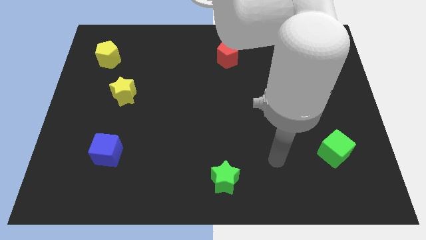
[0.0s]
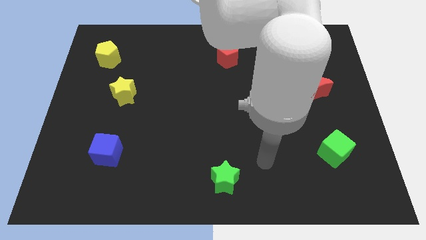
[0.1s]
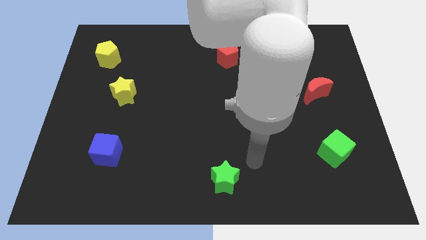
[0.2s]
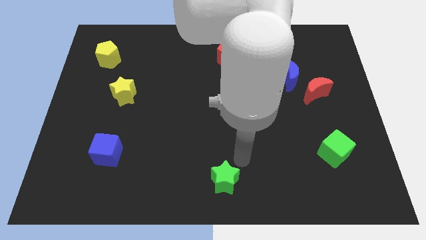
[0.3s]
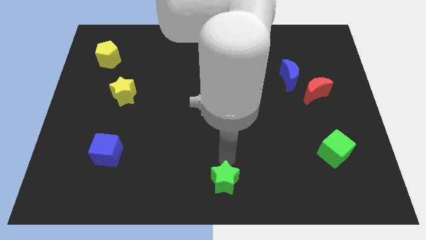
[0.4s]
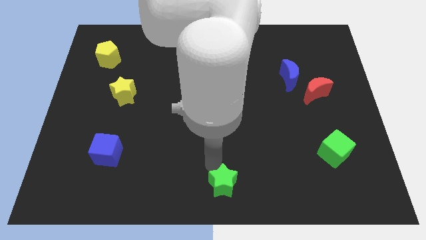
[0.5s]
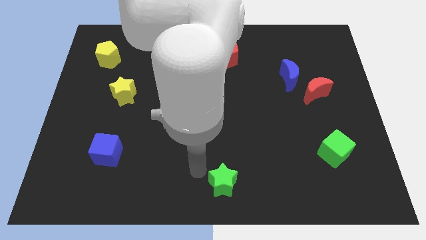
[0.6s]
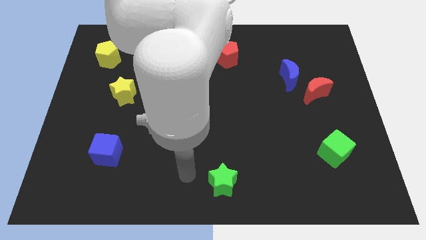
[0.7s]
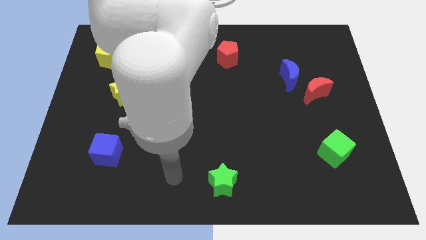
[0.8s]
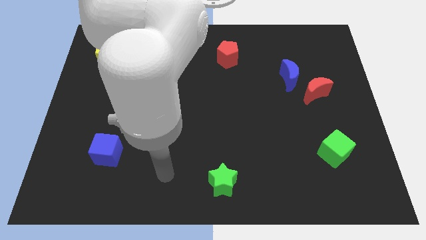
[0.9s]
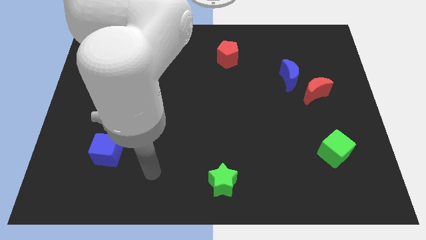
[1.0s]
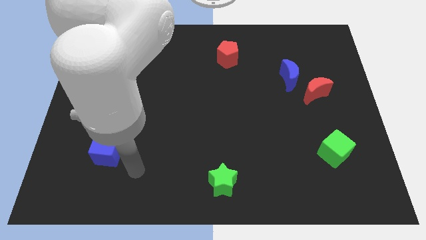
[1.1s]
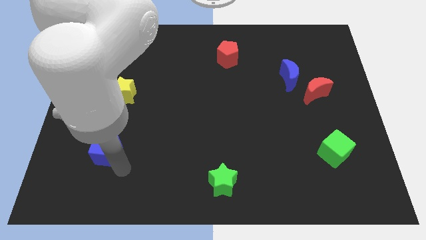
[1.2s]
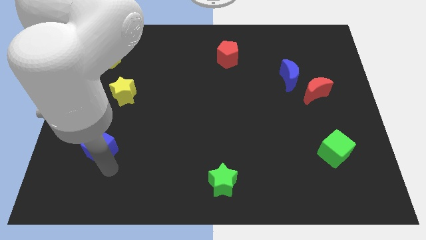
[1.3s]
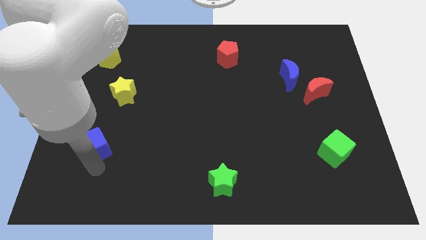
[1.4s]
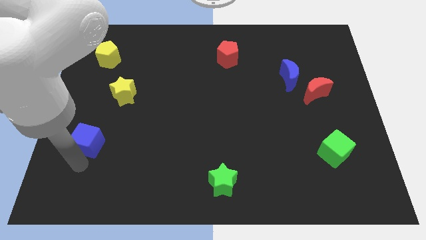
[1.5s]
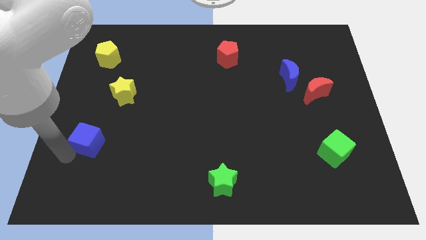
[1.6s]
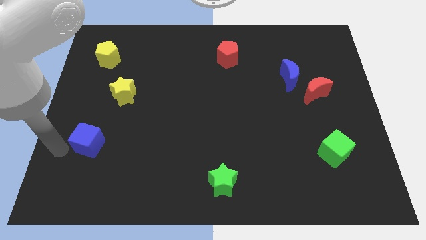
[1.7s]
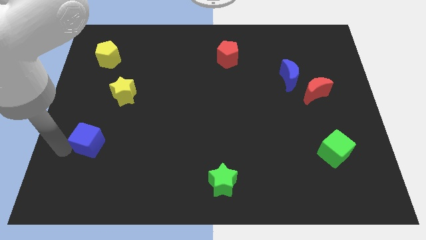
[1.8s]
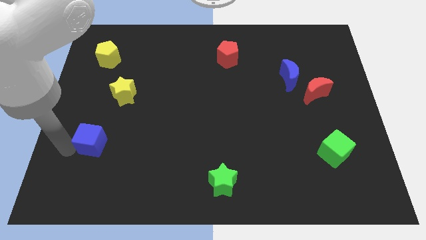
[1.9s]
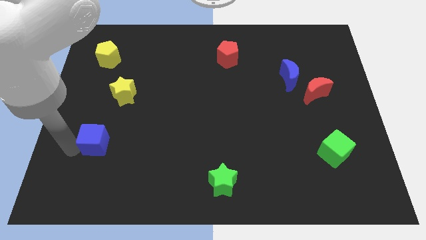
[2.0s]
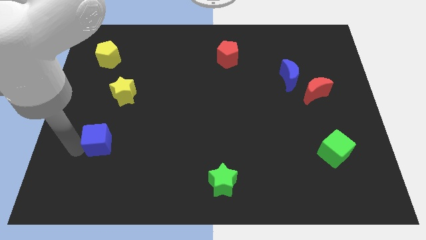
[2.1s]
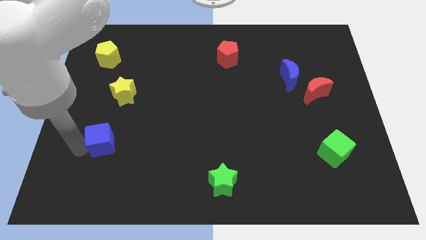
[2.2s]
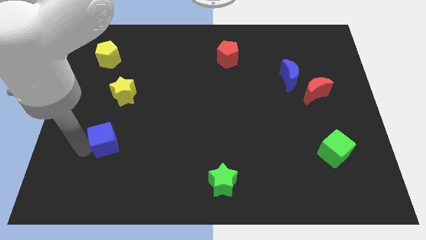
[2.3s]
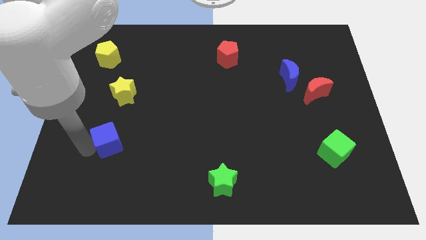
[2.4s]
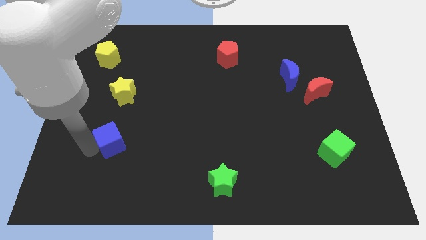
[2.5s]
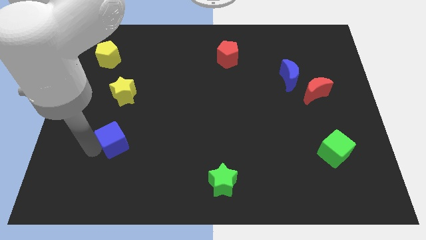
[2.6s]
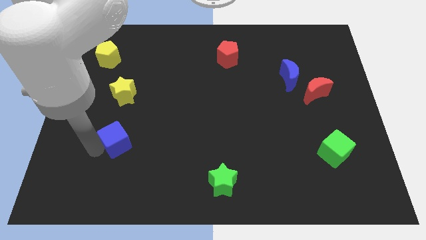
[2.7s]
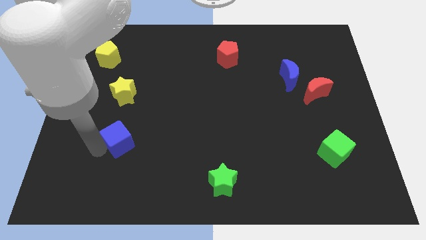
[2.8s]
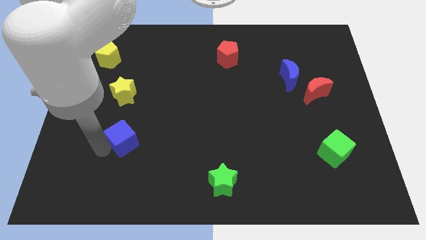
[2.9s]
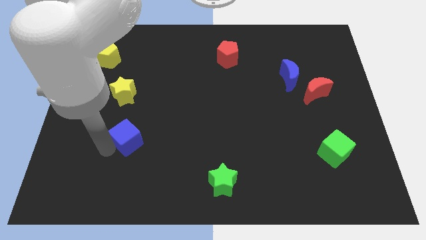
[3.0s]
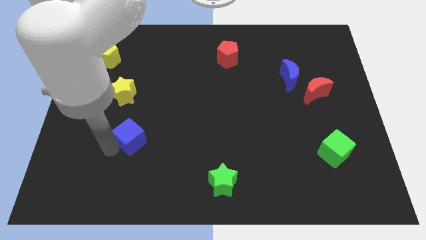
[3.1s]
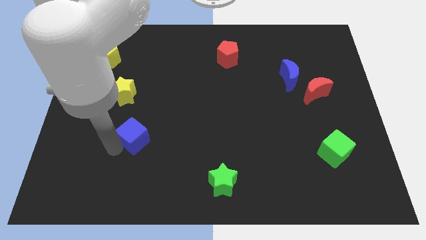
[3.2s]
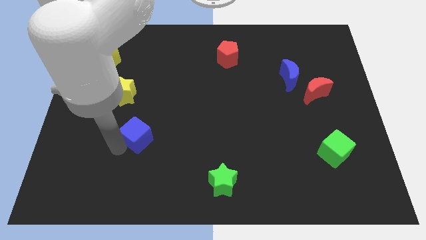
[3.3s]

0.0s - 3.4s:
slightly push the blue cube up and right diagonally

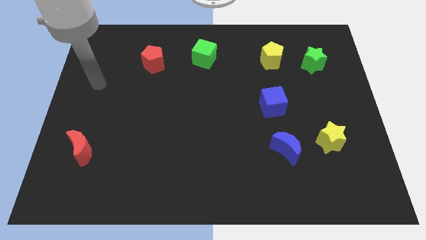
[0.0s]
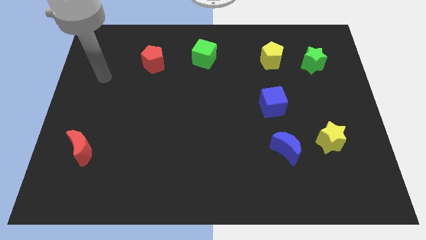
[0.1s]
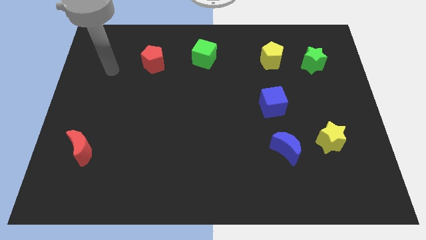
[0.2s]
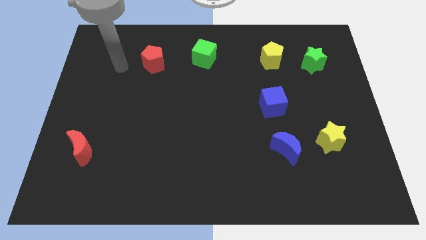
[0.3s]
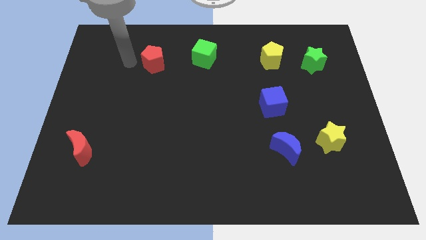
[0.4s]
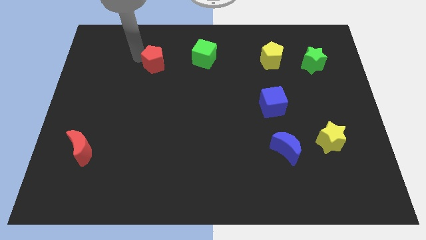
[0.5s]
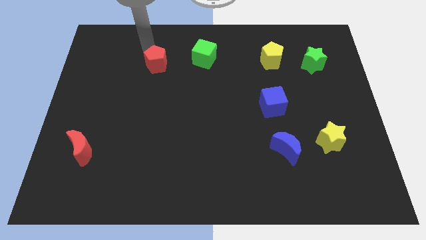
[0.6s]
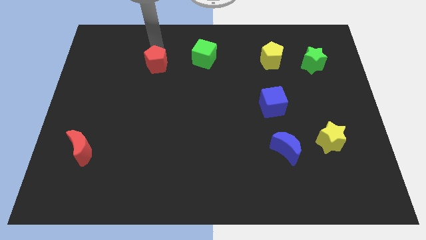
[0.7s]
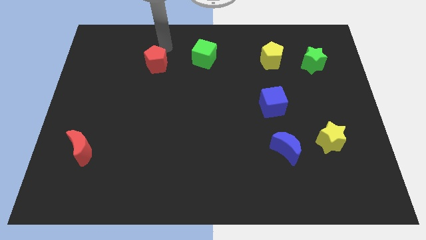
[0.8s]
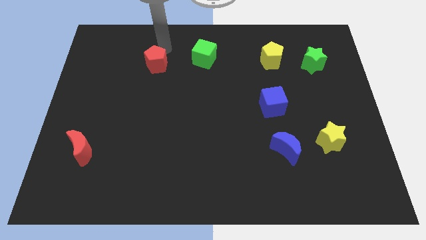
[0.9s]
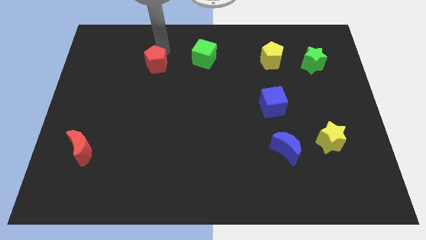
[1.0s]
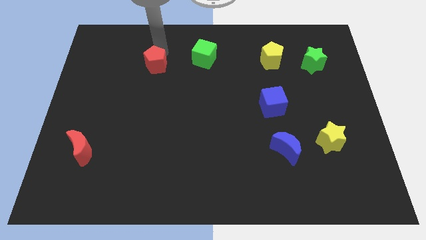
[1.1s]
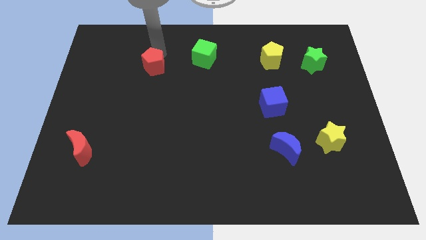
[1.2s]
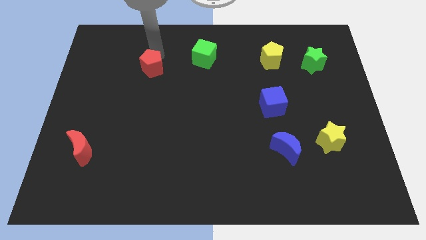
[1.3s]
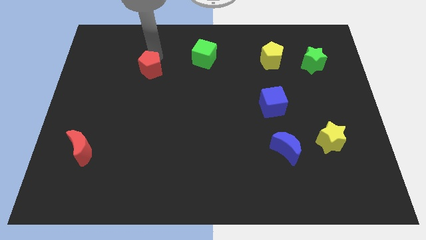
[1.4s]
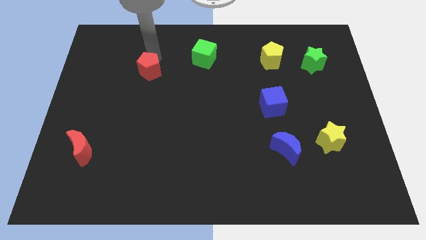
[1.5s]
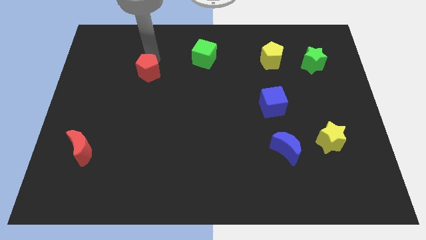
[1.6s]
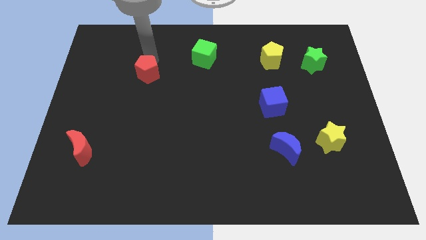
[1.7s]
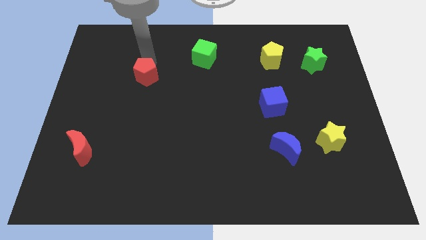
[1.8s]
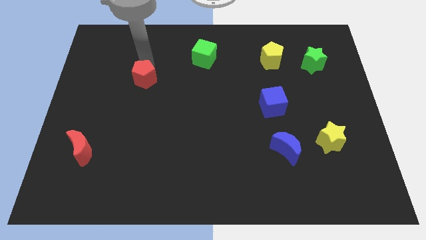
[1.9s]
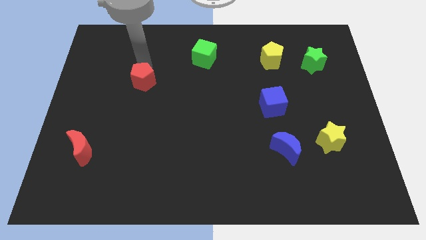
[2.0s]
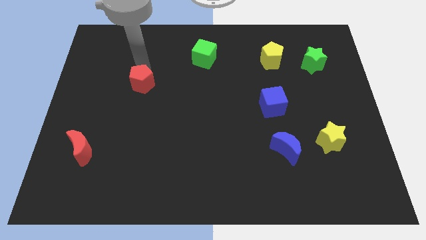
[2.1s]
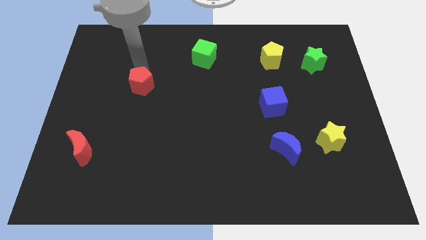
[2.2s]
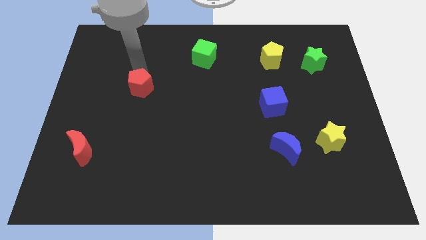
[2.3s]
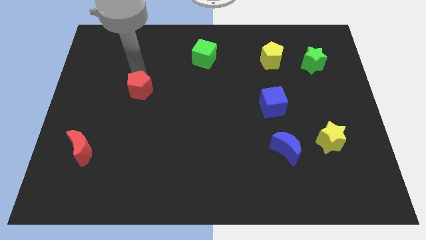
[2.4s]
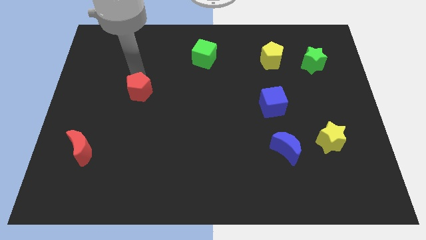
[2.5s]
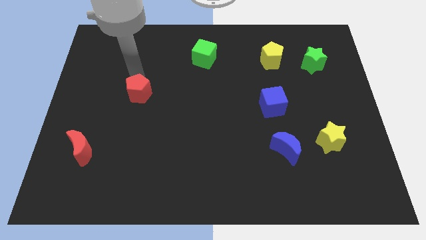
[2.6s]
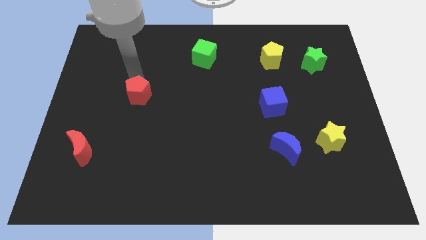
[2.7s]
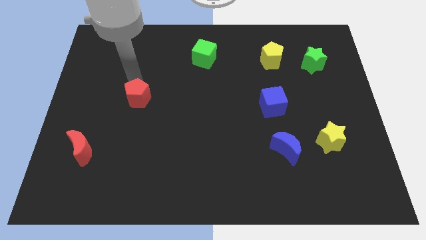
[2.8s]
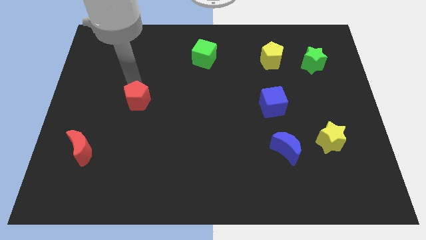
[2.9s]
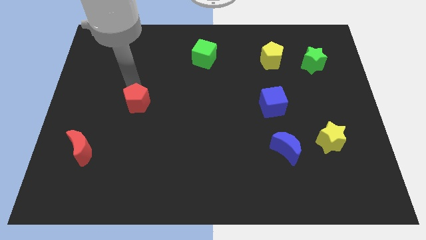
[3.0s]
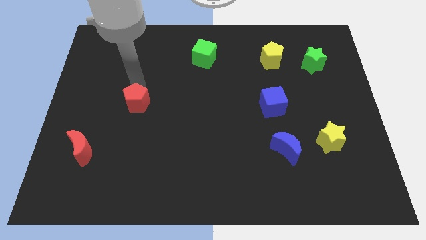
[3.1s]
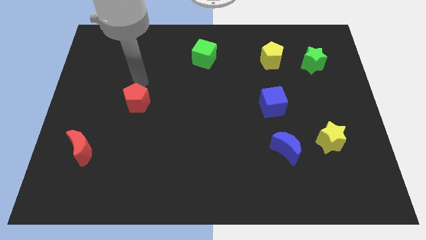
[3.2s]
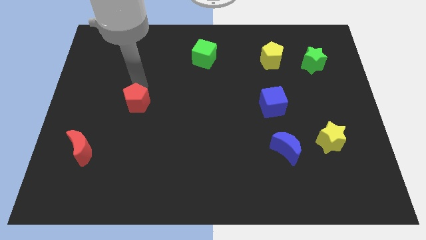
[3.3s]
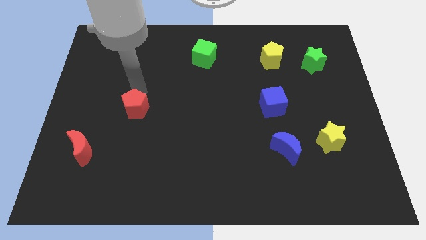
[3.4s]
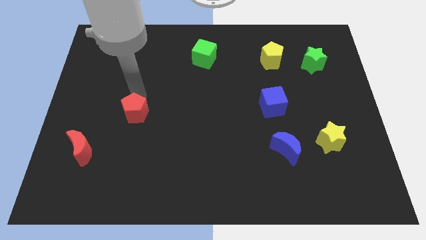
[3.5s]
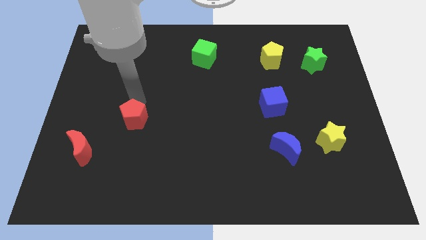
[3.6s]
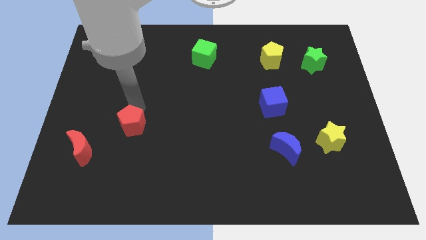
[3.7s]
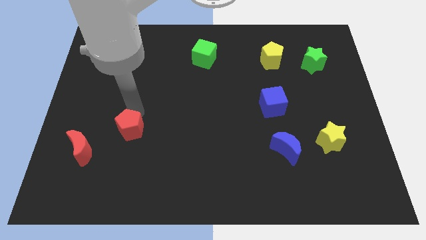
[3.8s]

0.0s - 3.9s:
push the red pentagon down

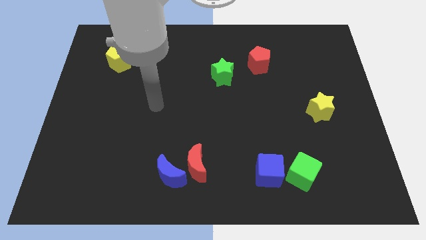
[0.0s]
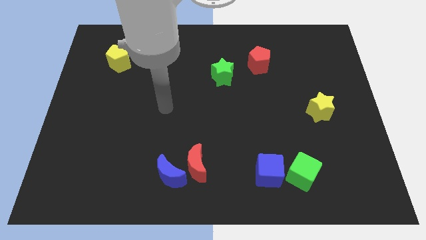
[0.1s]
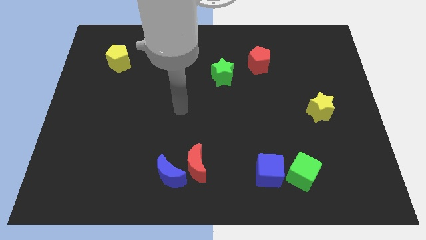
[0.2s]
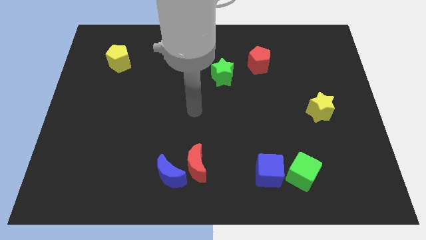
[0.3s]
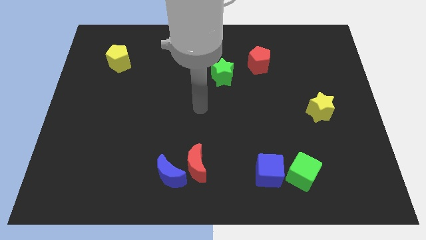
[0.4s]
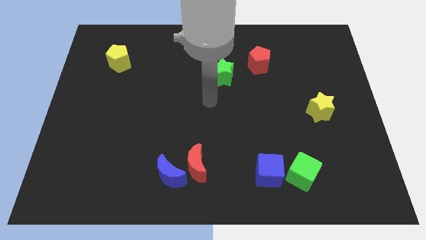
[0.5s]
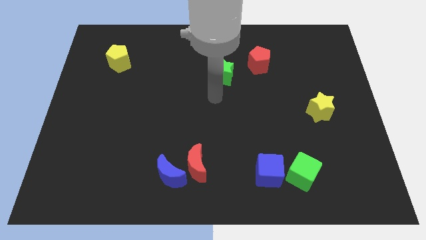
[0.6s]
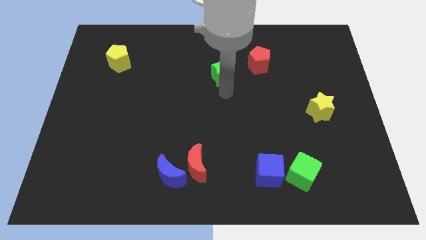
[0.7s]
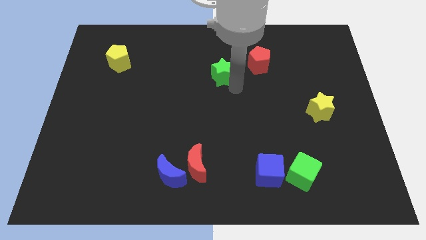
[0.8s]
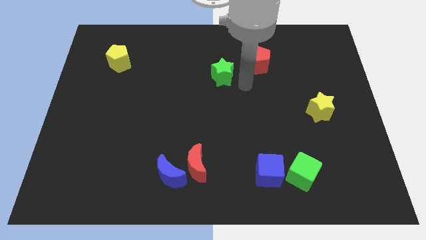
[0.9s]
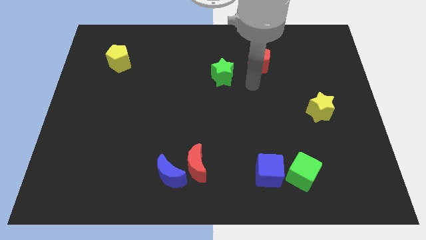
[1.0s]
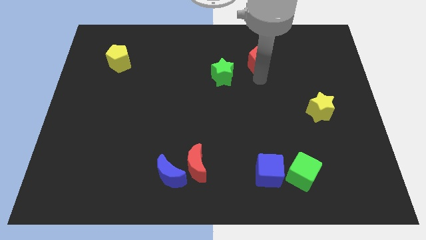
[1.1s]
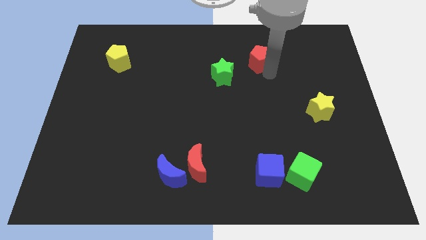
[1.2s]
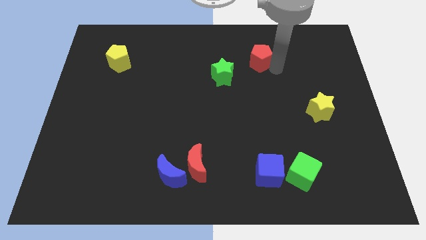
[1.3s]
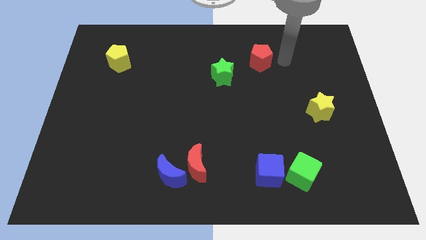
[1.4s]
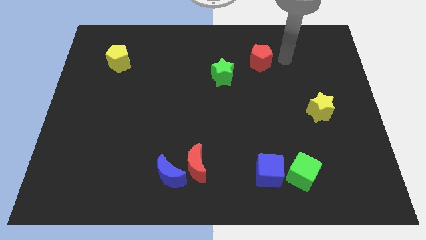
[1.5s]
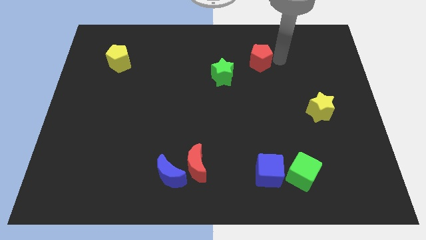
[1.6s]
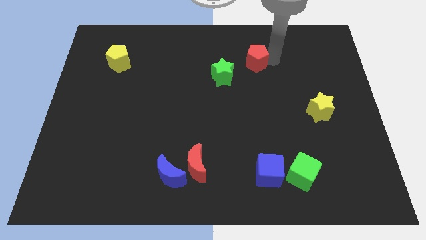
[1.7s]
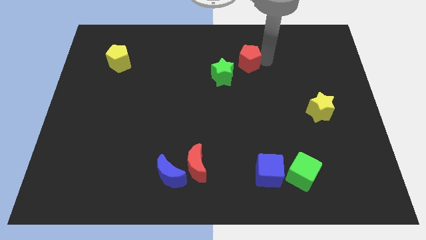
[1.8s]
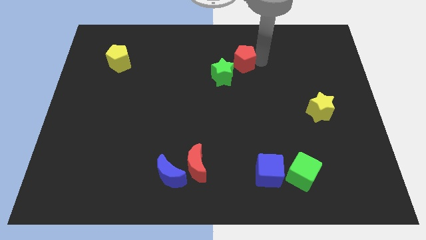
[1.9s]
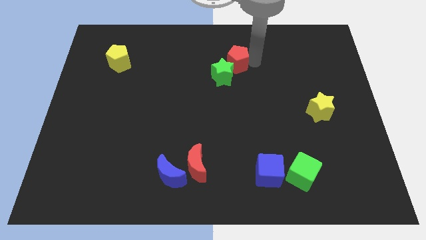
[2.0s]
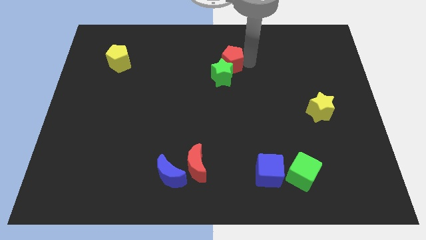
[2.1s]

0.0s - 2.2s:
slightly push the red pentagon to the left
